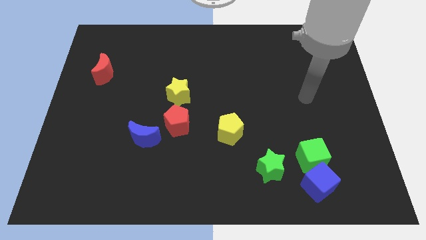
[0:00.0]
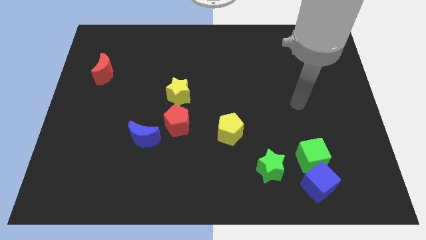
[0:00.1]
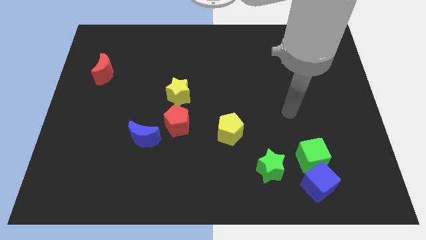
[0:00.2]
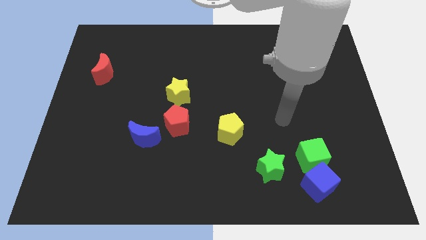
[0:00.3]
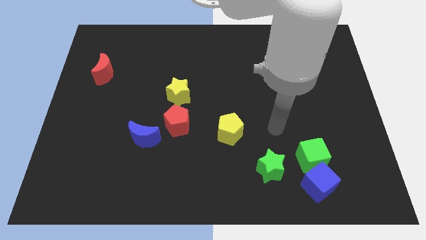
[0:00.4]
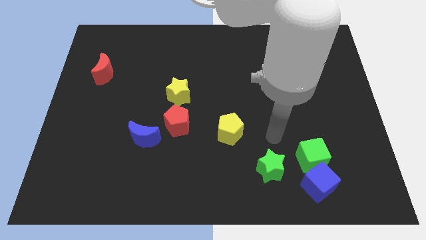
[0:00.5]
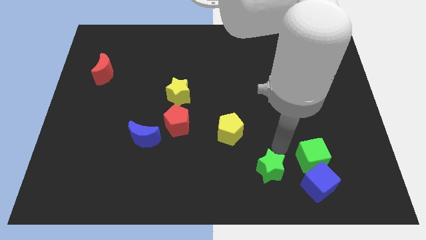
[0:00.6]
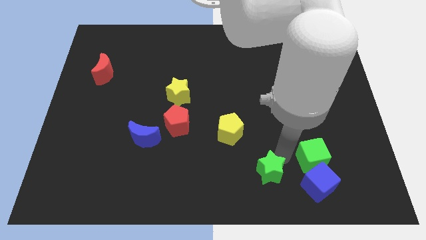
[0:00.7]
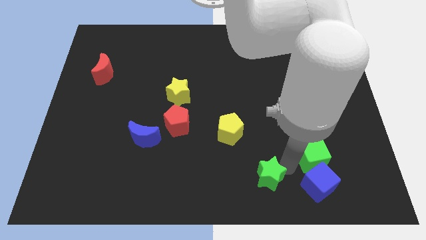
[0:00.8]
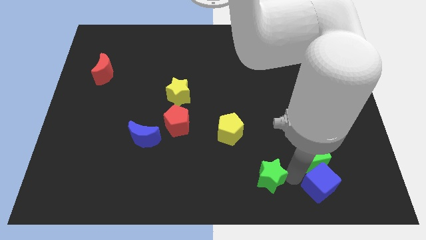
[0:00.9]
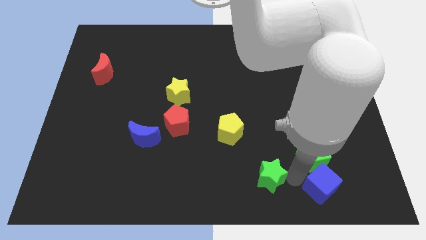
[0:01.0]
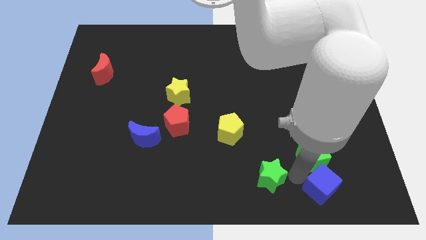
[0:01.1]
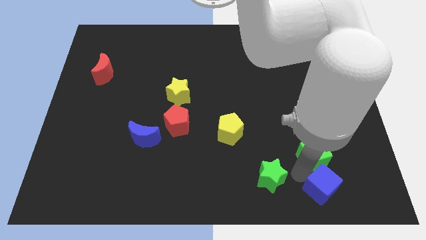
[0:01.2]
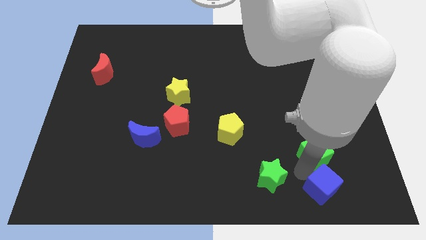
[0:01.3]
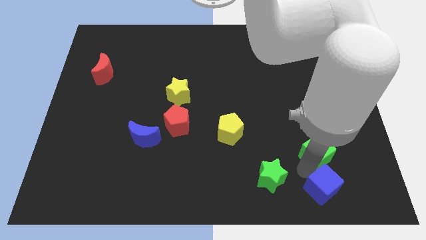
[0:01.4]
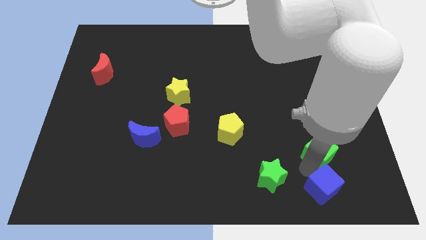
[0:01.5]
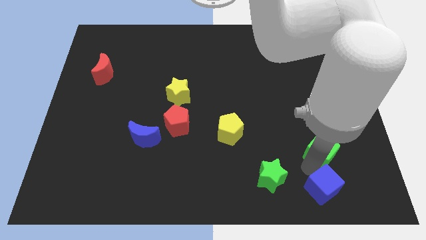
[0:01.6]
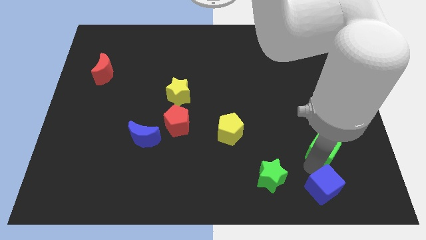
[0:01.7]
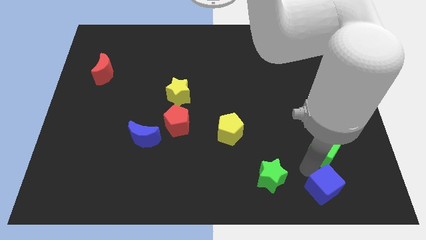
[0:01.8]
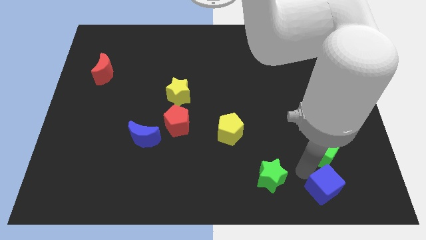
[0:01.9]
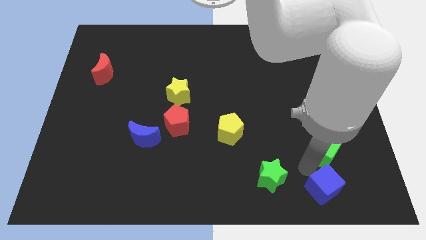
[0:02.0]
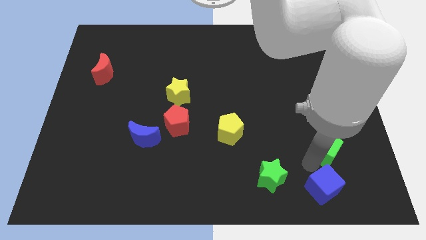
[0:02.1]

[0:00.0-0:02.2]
pull the green cube apart from the blue cube and green star

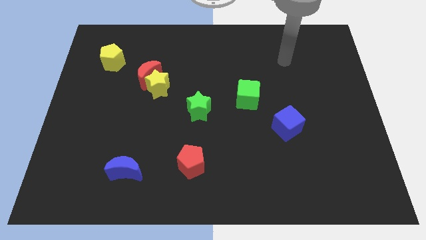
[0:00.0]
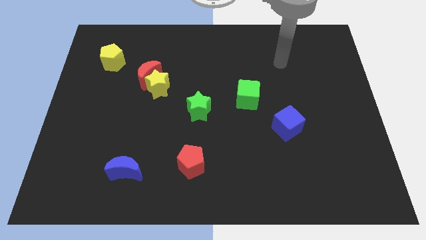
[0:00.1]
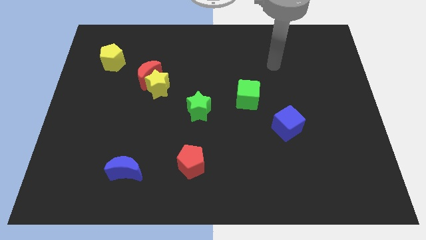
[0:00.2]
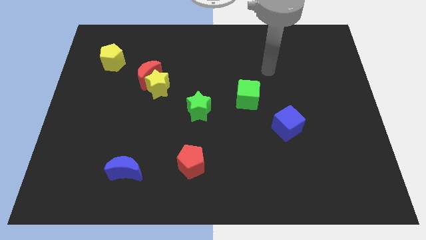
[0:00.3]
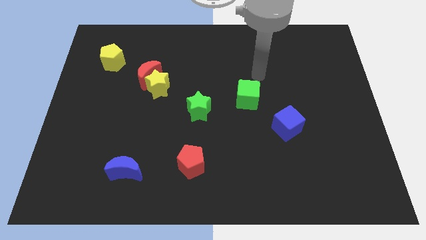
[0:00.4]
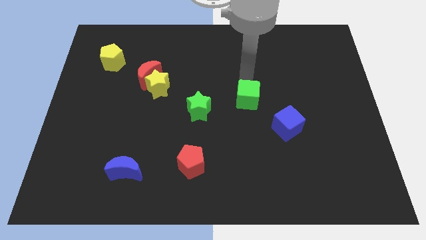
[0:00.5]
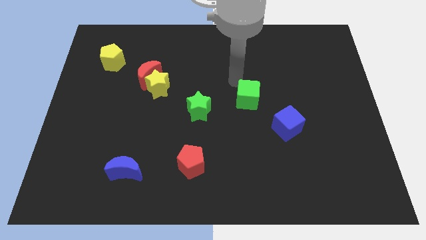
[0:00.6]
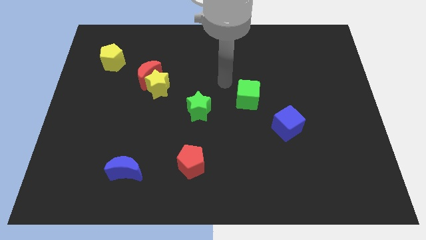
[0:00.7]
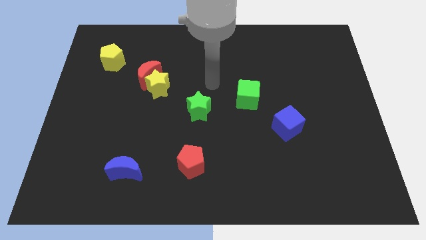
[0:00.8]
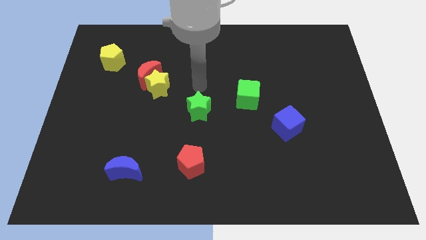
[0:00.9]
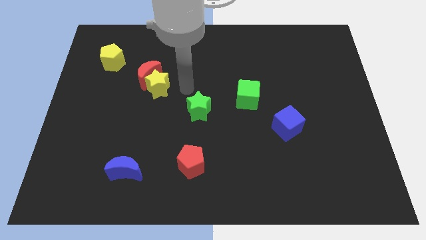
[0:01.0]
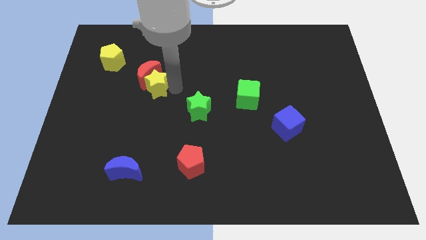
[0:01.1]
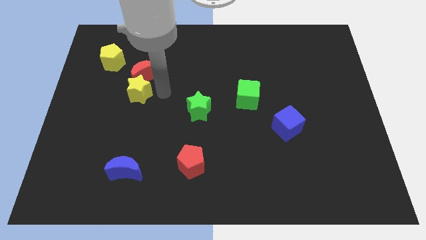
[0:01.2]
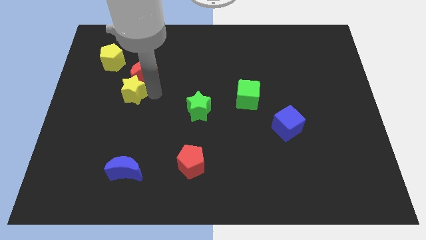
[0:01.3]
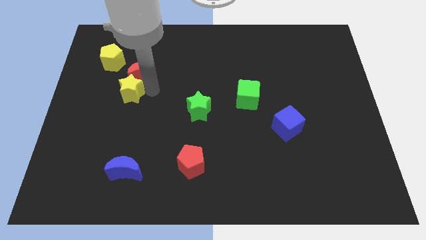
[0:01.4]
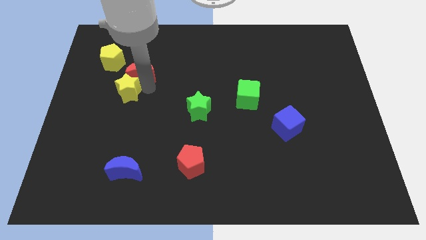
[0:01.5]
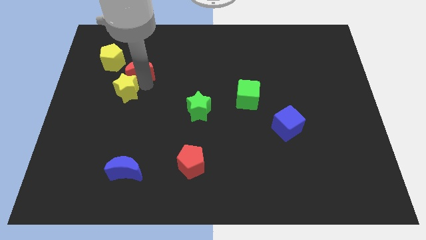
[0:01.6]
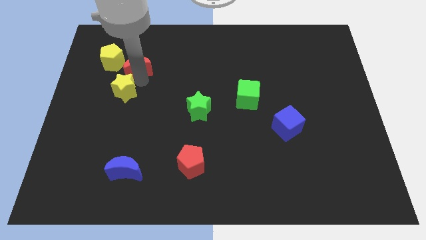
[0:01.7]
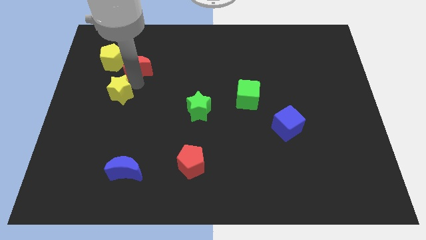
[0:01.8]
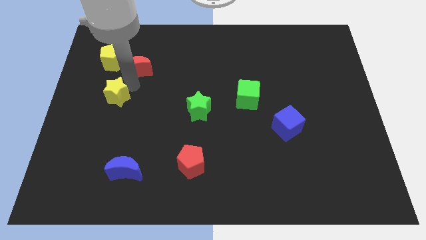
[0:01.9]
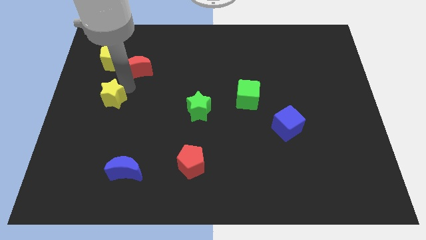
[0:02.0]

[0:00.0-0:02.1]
move the red moon away from the yellow star

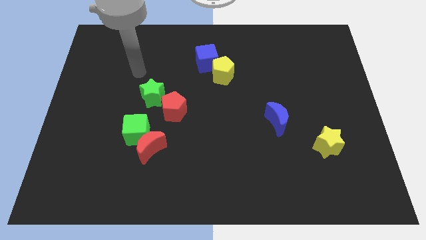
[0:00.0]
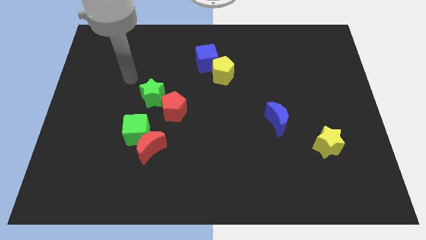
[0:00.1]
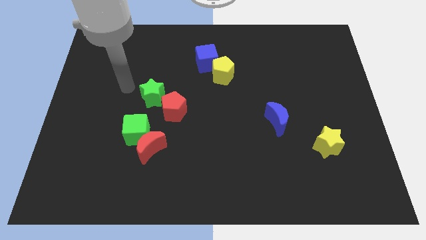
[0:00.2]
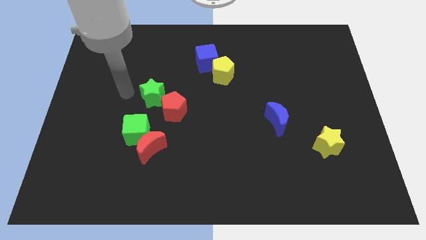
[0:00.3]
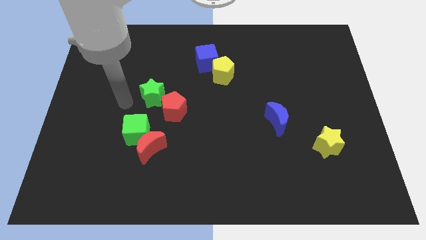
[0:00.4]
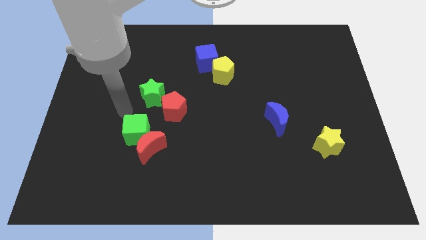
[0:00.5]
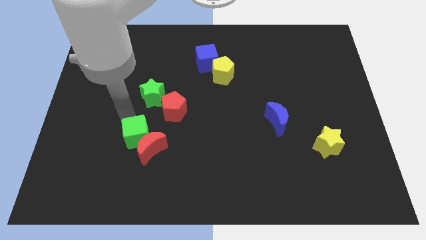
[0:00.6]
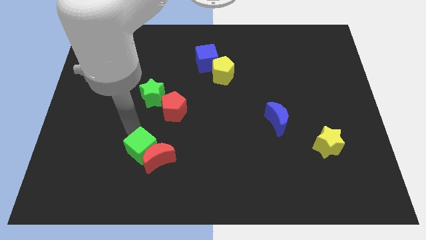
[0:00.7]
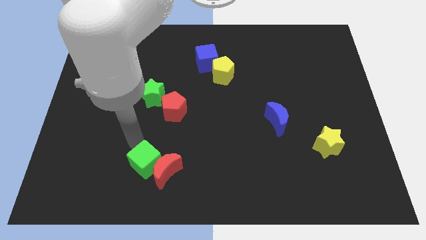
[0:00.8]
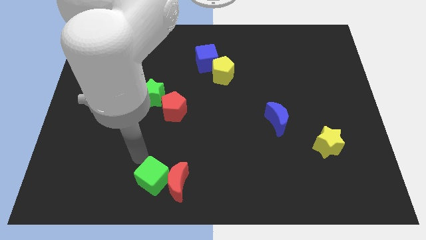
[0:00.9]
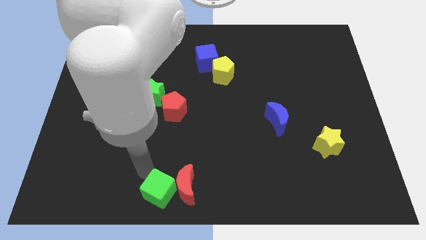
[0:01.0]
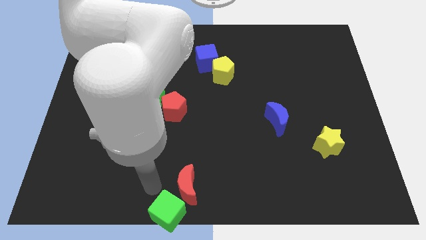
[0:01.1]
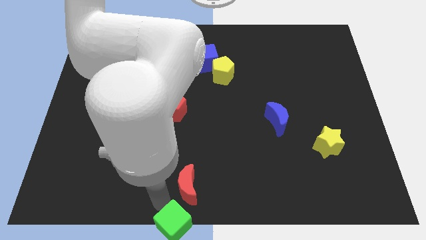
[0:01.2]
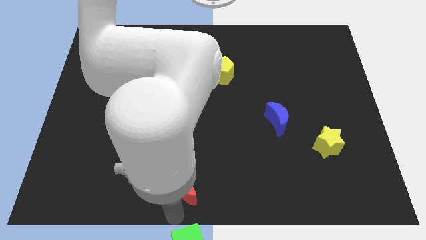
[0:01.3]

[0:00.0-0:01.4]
move the red moon away from the green cube

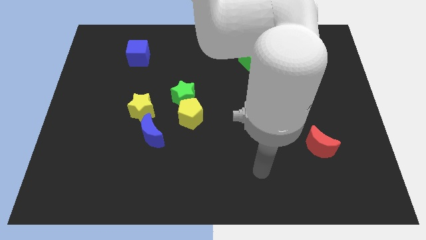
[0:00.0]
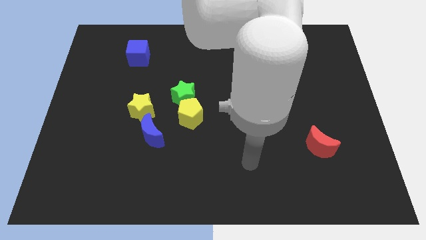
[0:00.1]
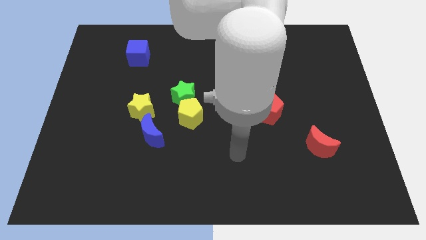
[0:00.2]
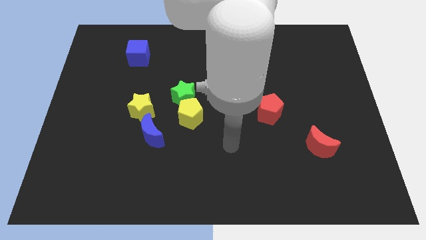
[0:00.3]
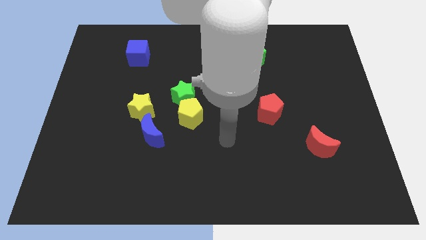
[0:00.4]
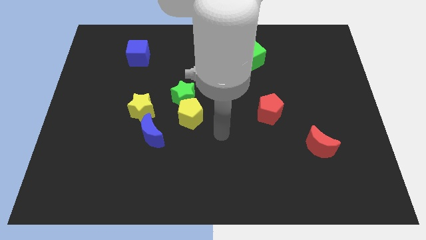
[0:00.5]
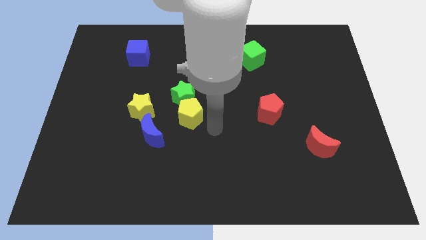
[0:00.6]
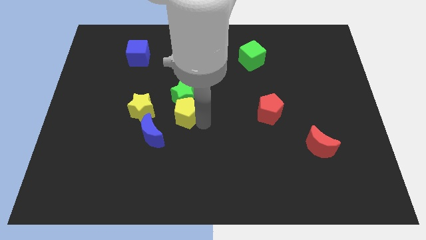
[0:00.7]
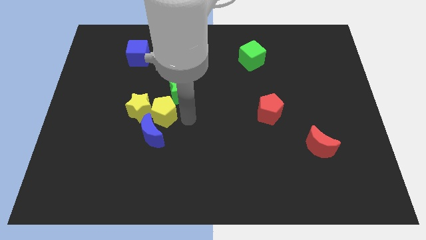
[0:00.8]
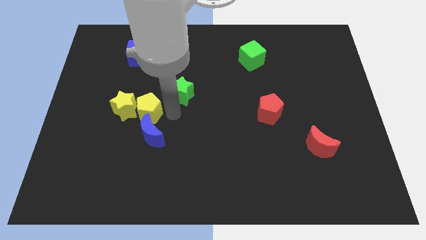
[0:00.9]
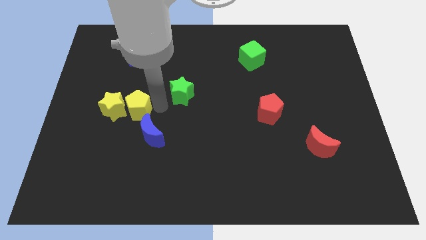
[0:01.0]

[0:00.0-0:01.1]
move the green star away from the yellow pentagon

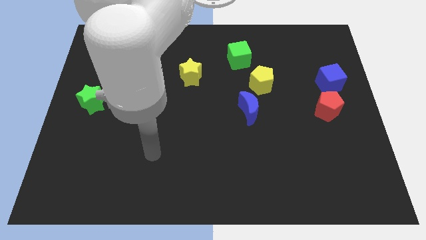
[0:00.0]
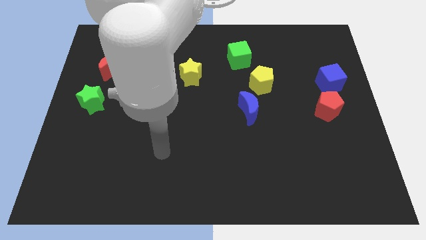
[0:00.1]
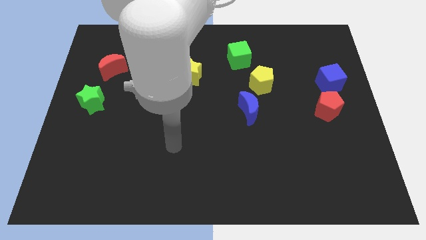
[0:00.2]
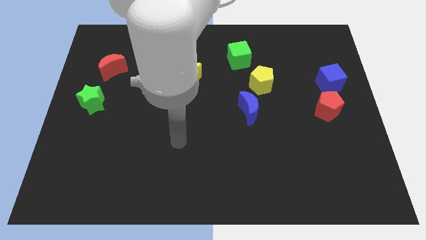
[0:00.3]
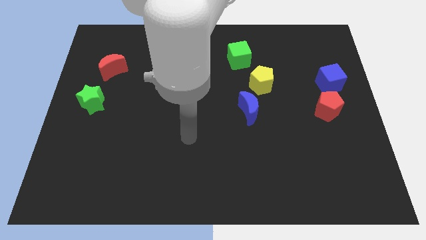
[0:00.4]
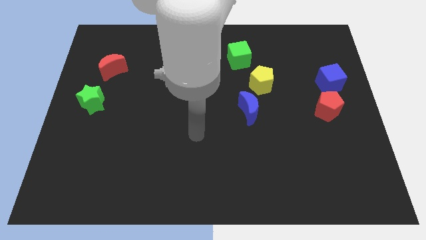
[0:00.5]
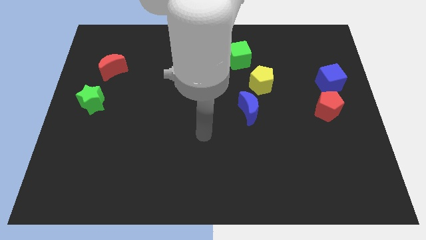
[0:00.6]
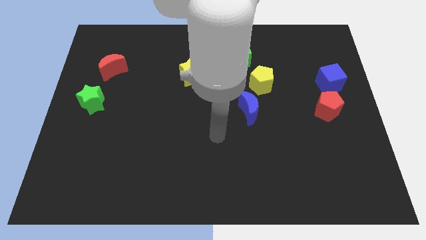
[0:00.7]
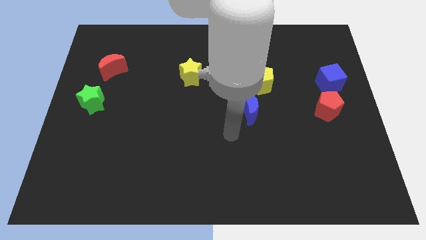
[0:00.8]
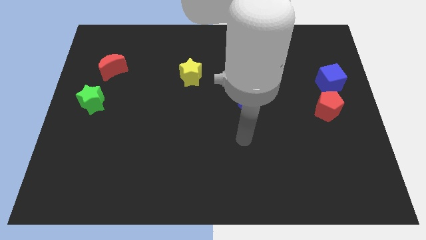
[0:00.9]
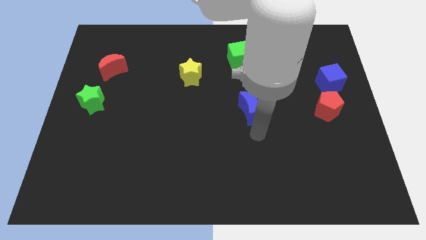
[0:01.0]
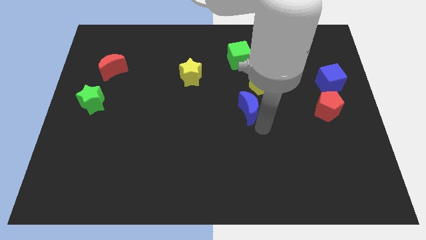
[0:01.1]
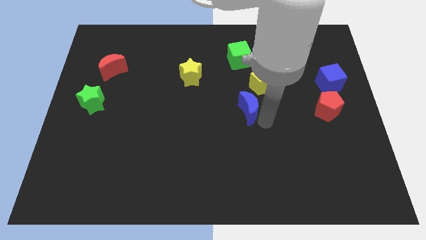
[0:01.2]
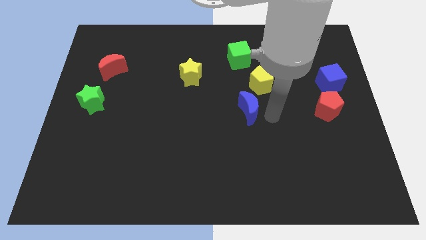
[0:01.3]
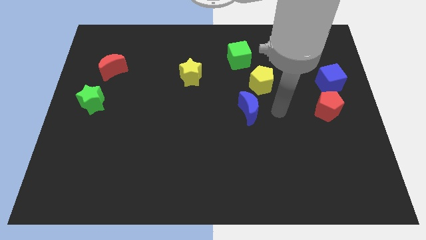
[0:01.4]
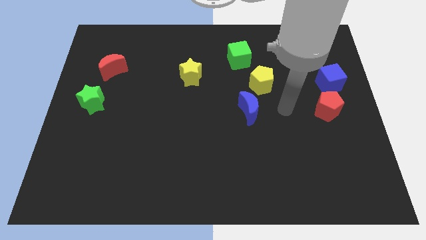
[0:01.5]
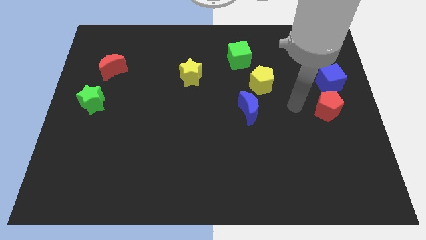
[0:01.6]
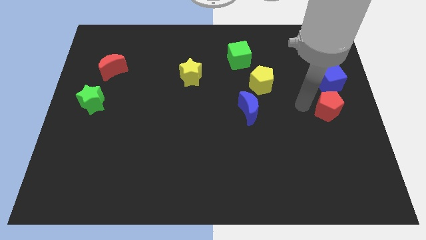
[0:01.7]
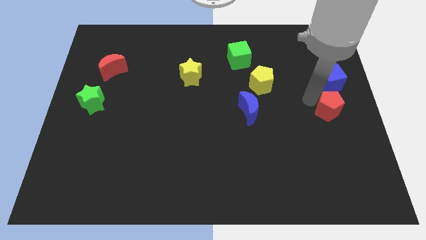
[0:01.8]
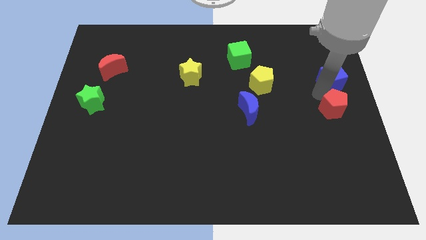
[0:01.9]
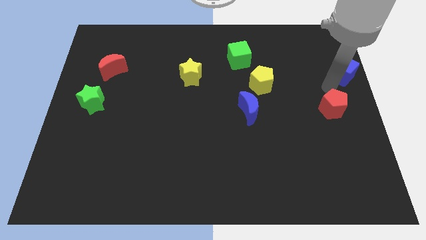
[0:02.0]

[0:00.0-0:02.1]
move the red pentagon away from the blue cube

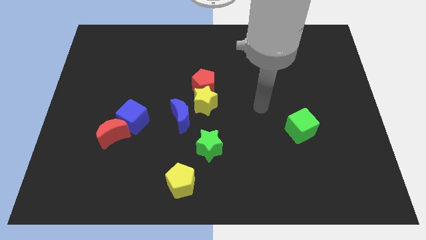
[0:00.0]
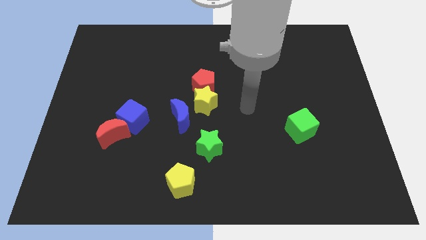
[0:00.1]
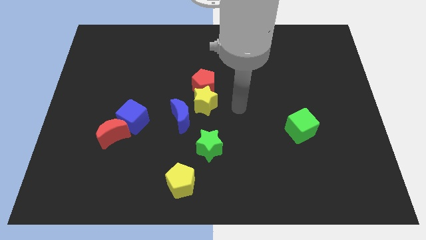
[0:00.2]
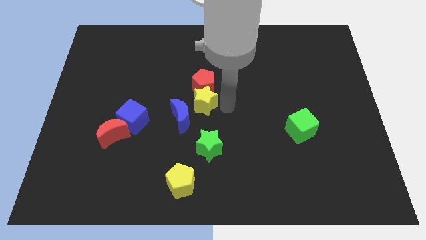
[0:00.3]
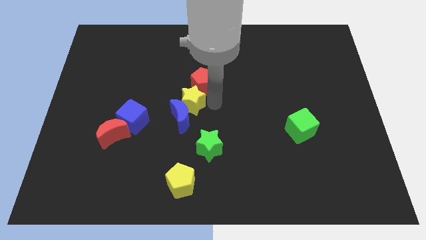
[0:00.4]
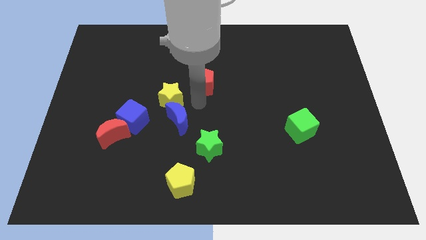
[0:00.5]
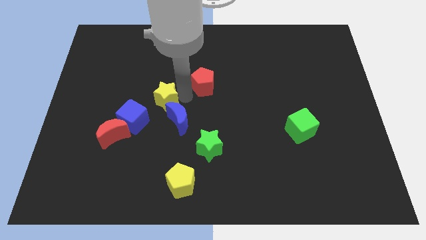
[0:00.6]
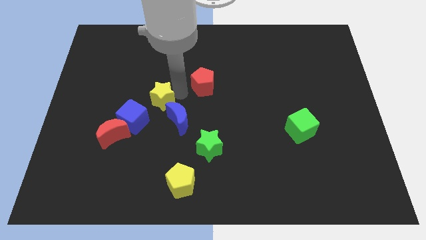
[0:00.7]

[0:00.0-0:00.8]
pull the red pentagon apart from the yellow star
